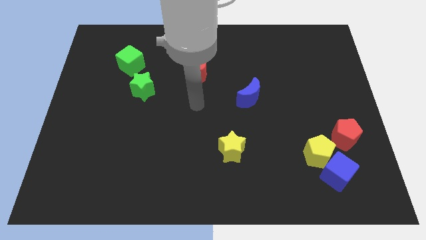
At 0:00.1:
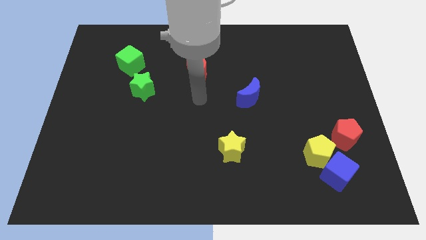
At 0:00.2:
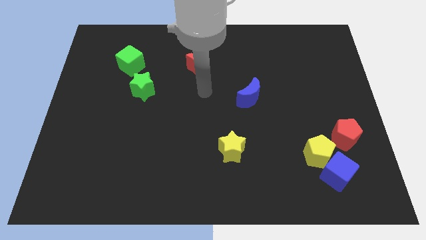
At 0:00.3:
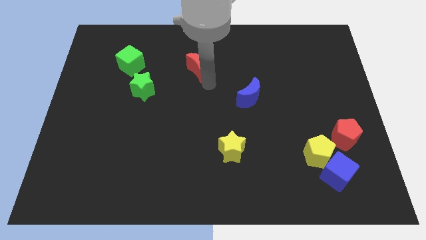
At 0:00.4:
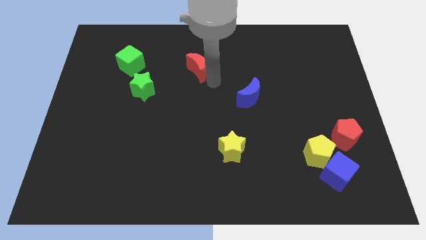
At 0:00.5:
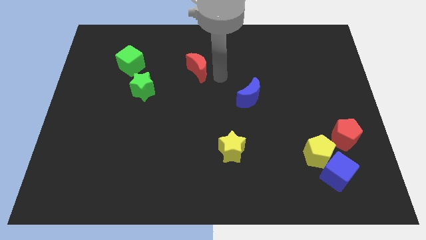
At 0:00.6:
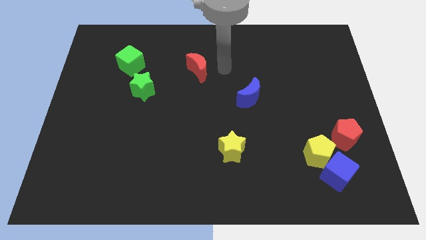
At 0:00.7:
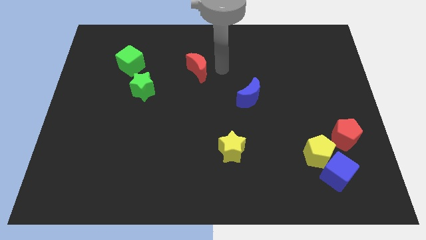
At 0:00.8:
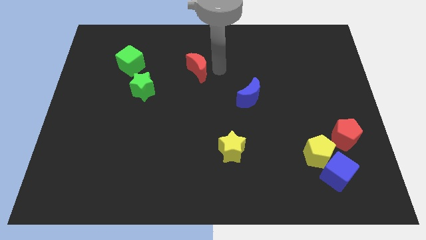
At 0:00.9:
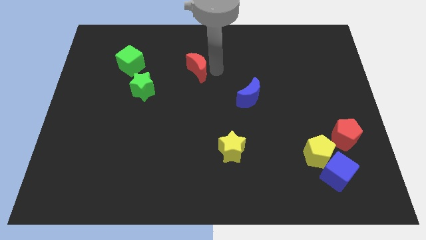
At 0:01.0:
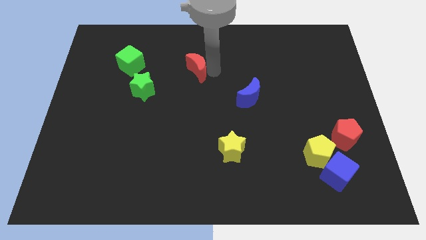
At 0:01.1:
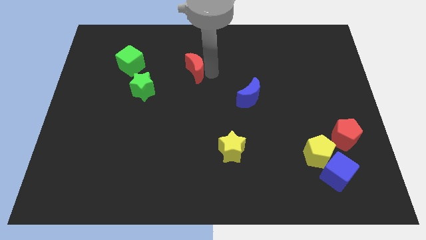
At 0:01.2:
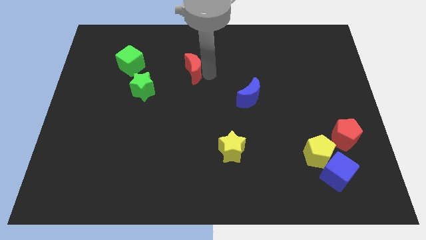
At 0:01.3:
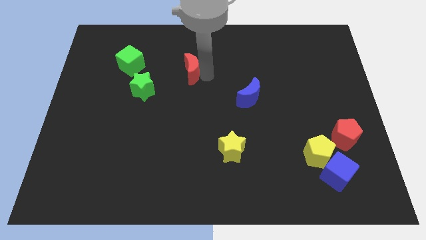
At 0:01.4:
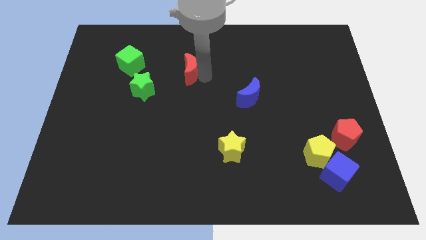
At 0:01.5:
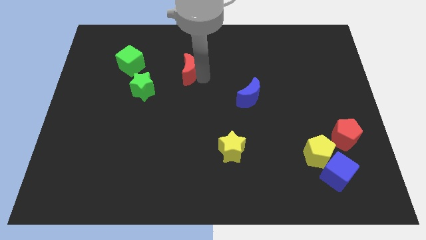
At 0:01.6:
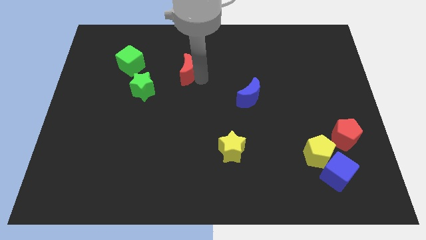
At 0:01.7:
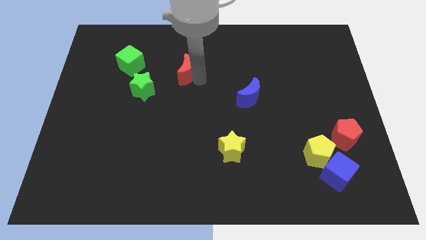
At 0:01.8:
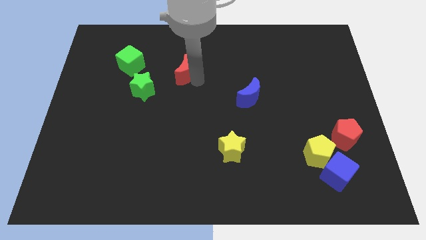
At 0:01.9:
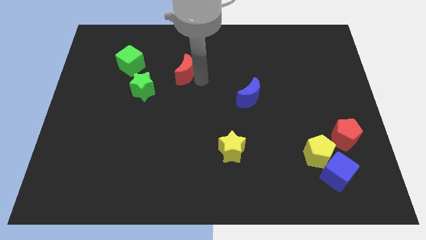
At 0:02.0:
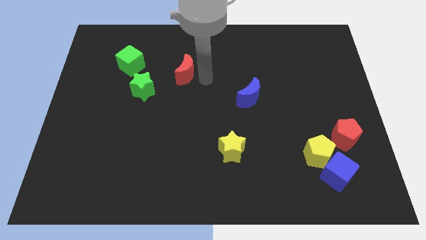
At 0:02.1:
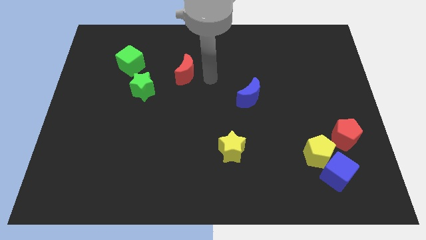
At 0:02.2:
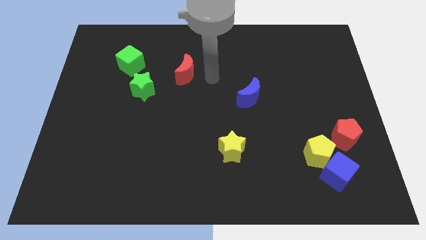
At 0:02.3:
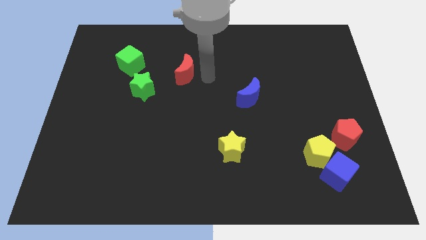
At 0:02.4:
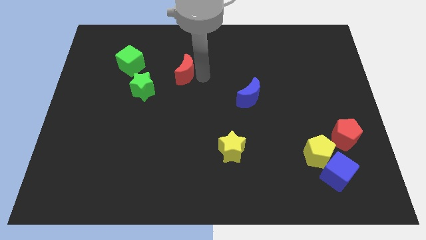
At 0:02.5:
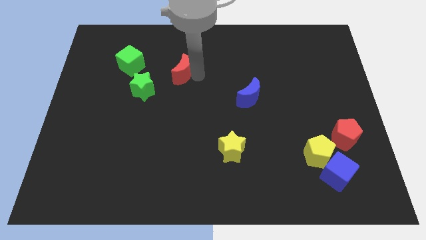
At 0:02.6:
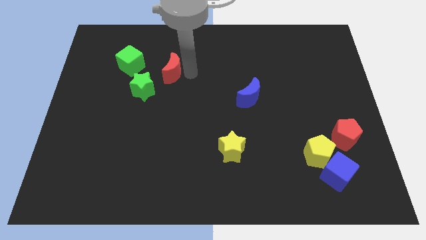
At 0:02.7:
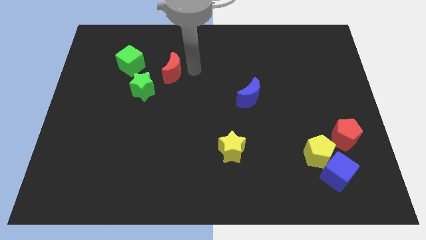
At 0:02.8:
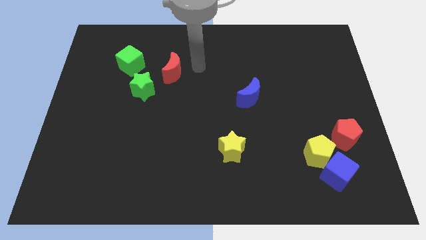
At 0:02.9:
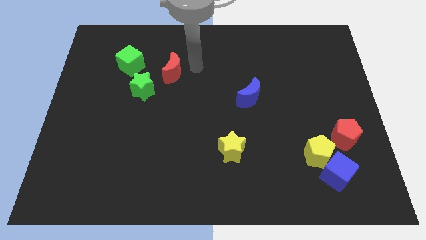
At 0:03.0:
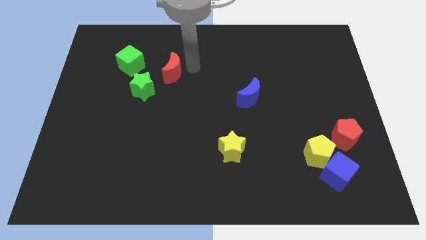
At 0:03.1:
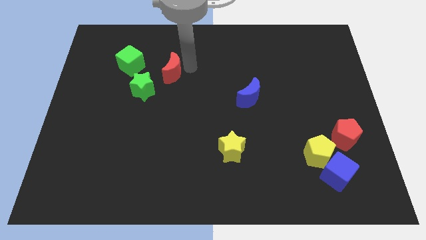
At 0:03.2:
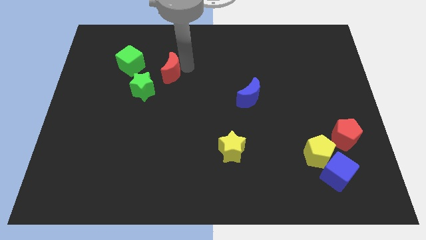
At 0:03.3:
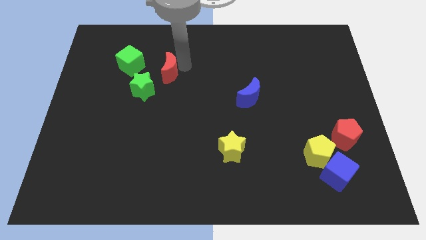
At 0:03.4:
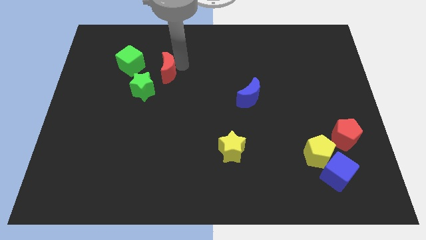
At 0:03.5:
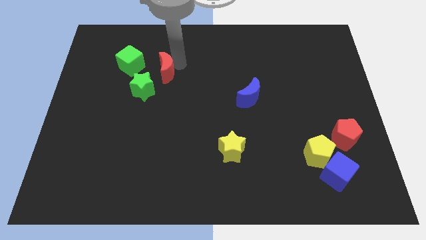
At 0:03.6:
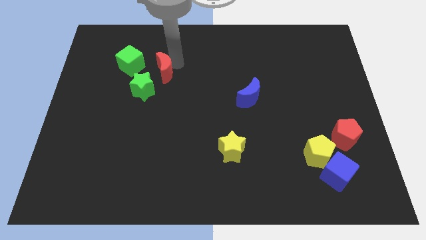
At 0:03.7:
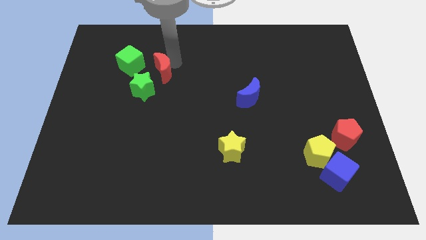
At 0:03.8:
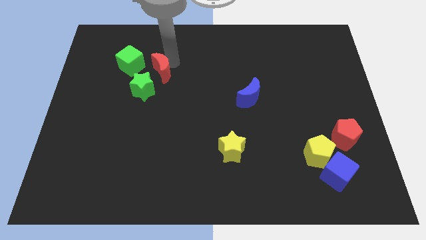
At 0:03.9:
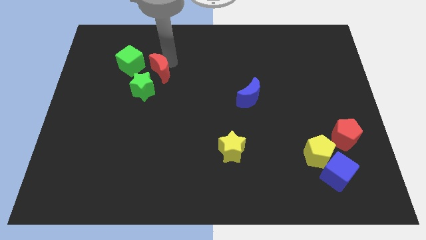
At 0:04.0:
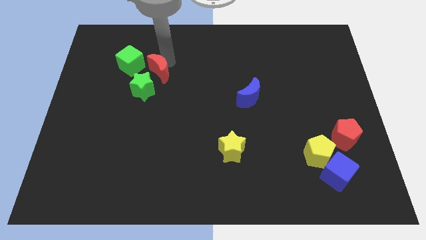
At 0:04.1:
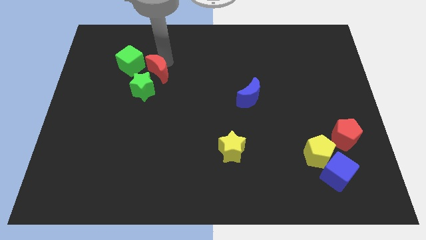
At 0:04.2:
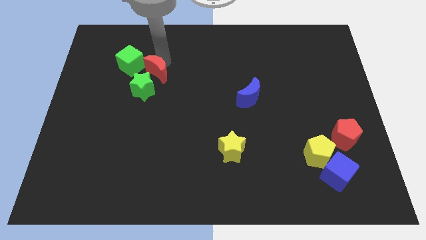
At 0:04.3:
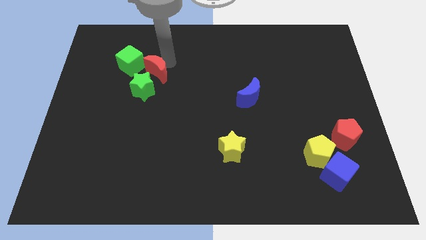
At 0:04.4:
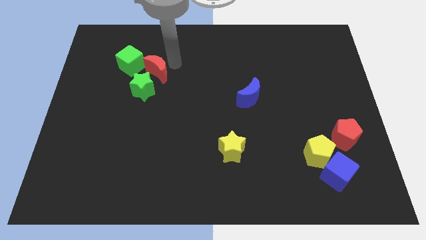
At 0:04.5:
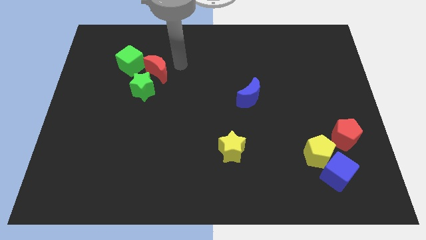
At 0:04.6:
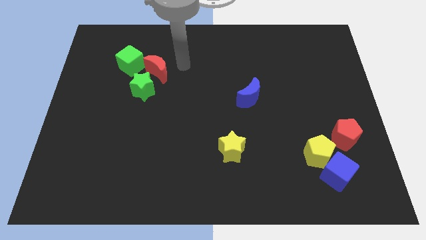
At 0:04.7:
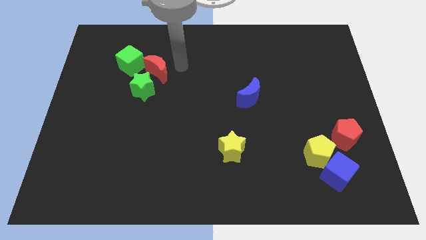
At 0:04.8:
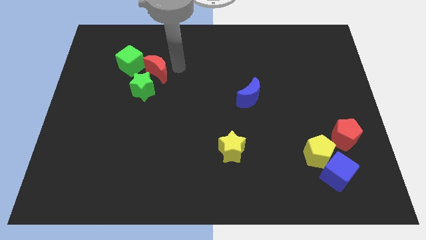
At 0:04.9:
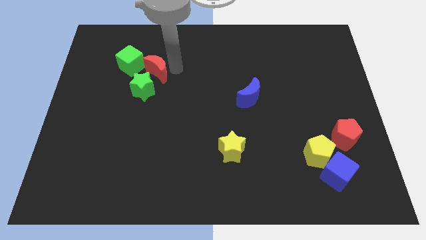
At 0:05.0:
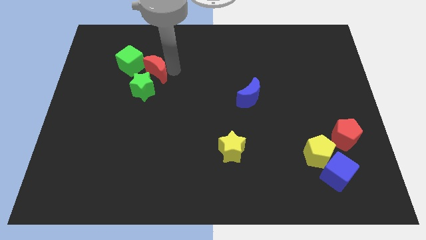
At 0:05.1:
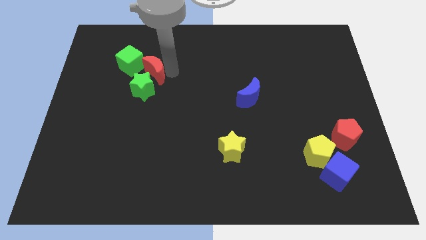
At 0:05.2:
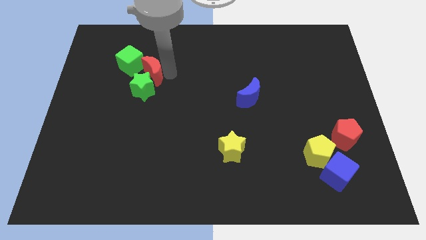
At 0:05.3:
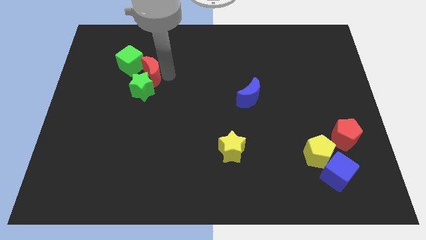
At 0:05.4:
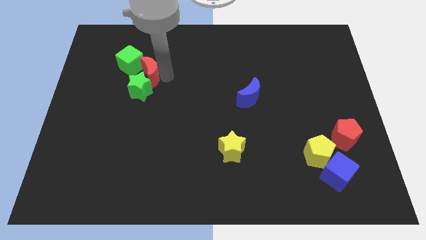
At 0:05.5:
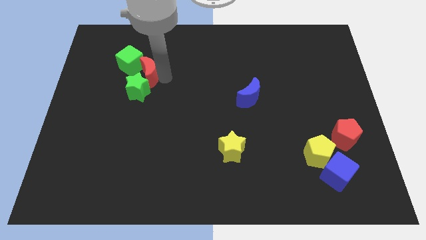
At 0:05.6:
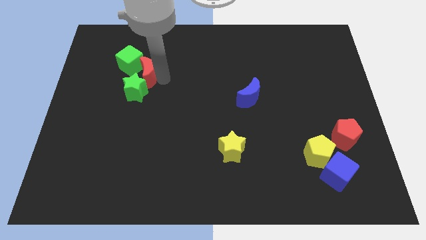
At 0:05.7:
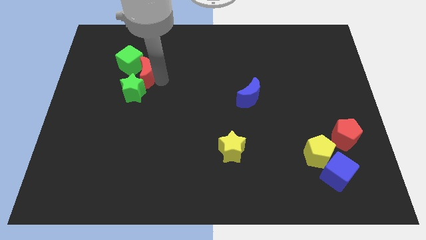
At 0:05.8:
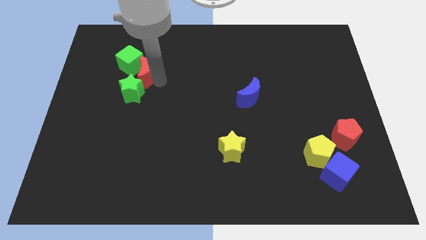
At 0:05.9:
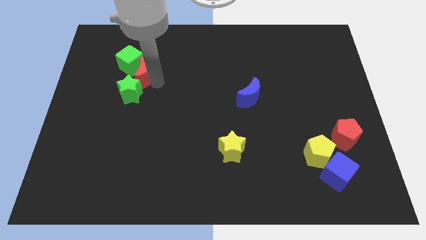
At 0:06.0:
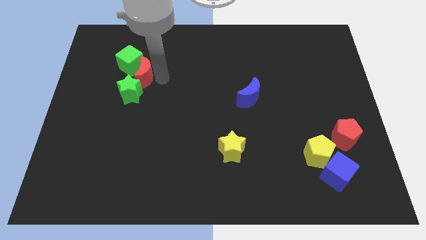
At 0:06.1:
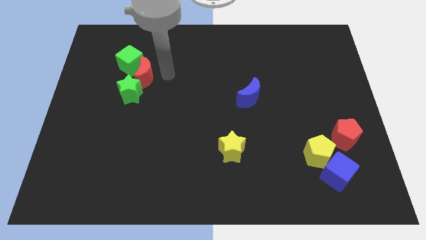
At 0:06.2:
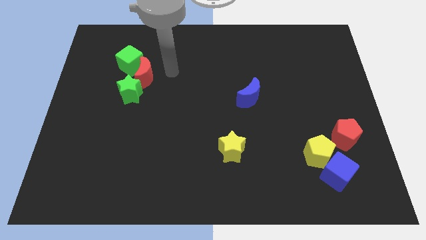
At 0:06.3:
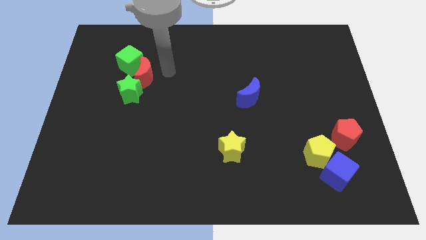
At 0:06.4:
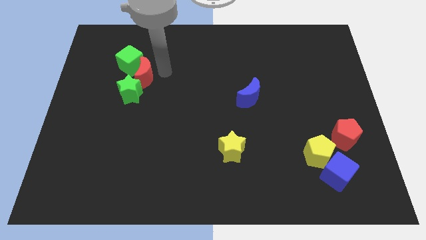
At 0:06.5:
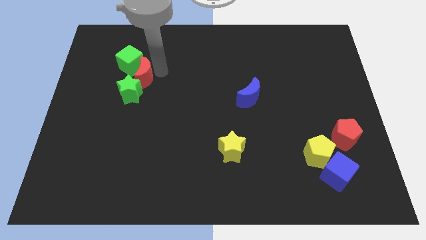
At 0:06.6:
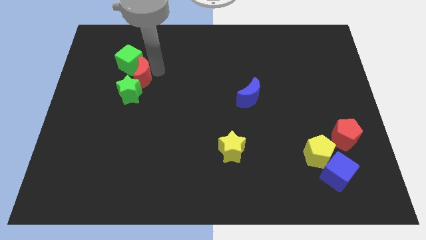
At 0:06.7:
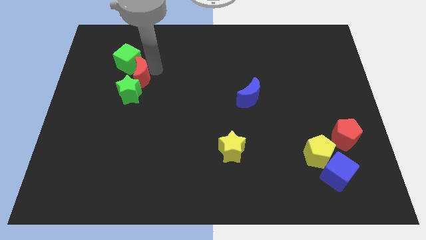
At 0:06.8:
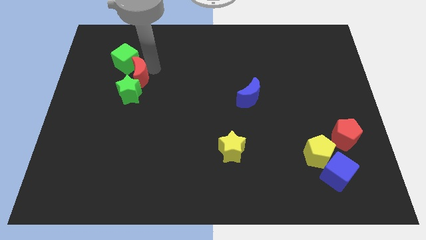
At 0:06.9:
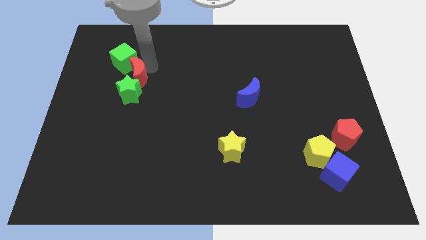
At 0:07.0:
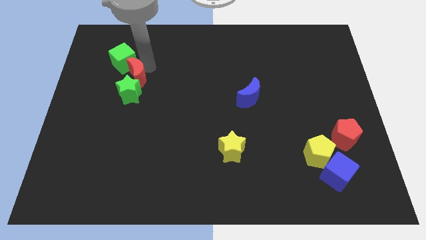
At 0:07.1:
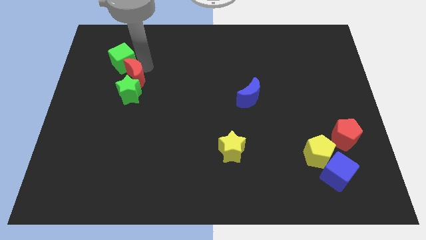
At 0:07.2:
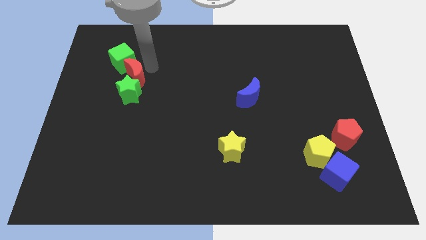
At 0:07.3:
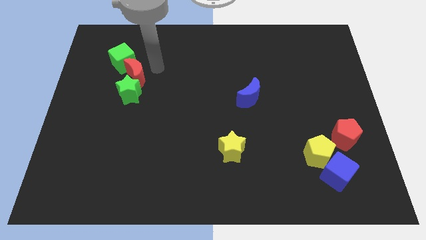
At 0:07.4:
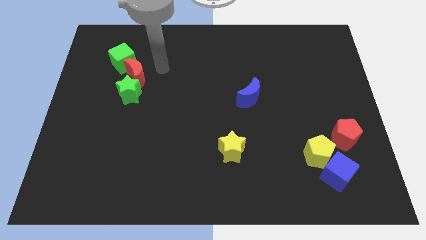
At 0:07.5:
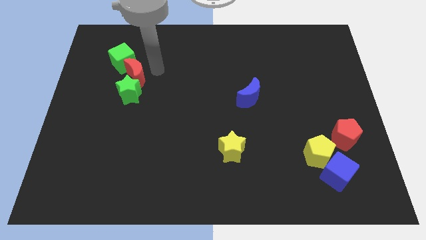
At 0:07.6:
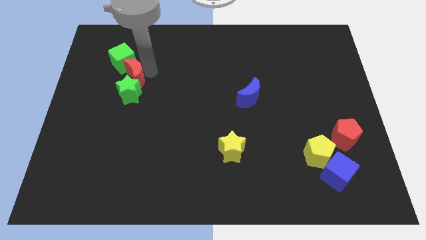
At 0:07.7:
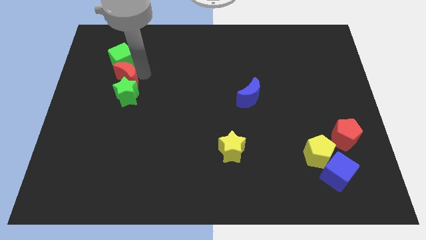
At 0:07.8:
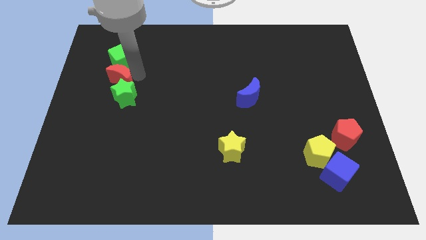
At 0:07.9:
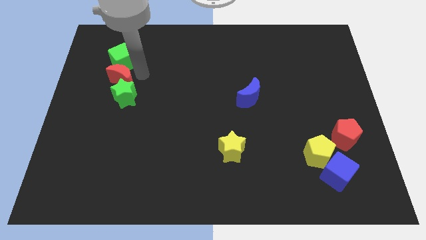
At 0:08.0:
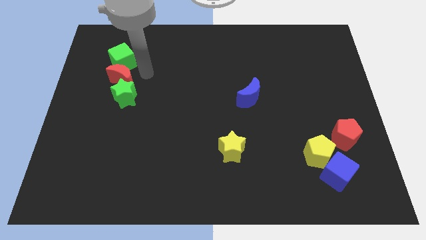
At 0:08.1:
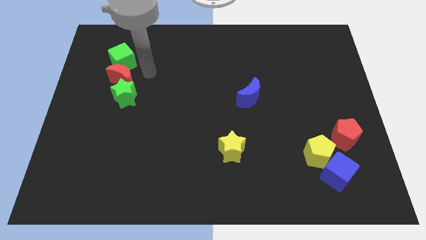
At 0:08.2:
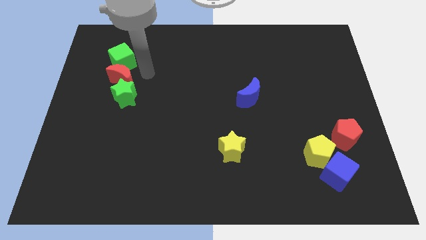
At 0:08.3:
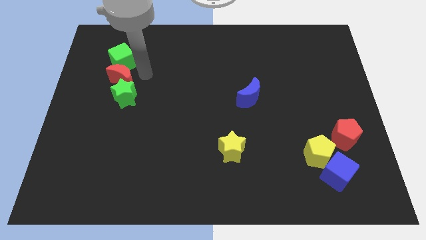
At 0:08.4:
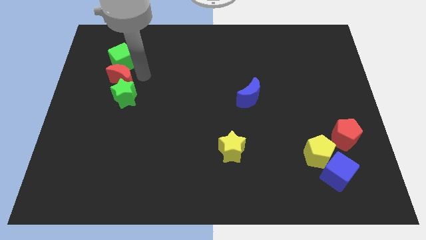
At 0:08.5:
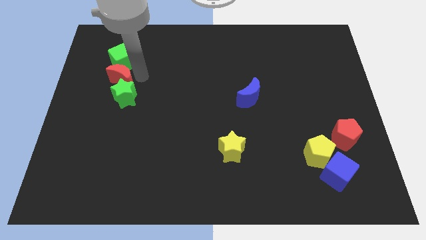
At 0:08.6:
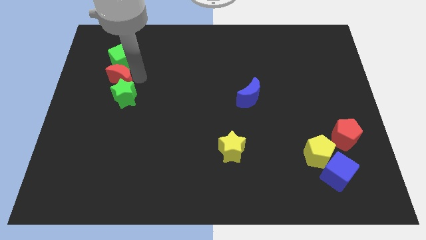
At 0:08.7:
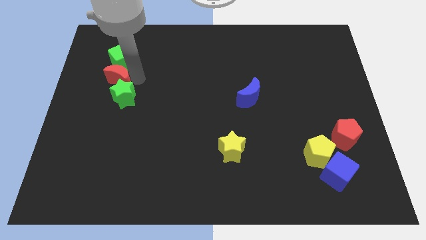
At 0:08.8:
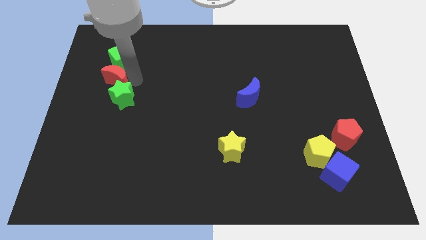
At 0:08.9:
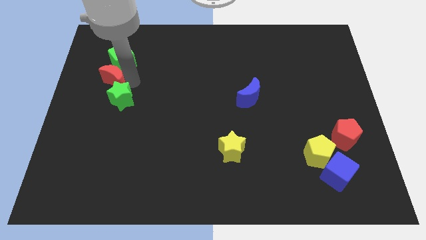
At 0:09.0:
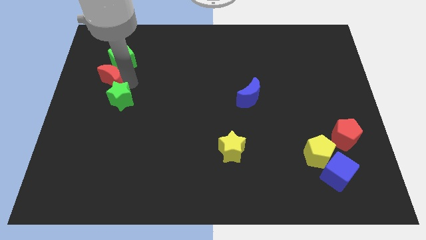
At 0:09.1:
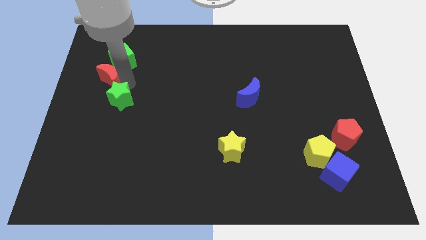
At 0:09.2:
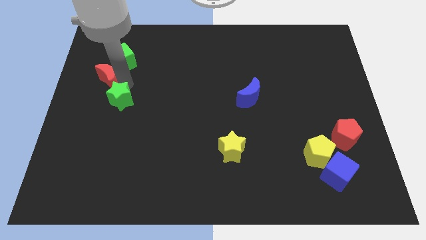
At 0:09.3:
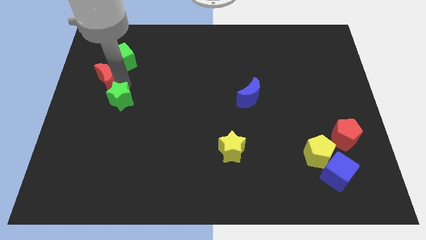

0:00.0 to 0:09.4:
push the red moon to the center left
